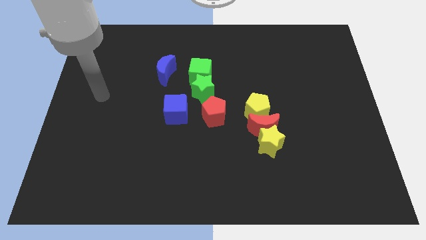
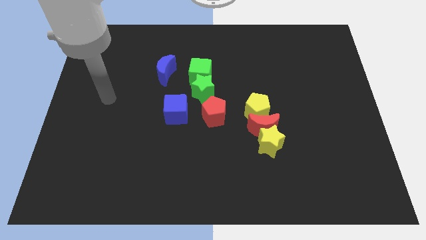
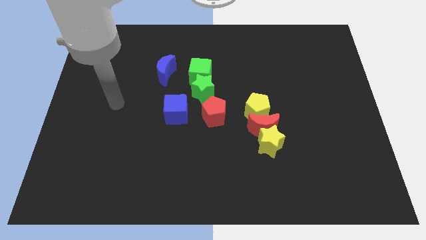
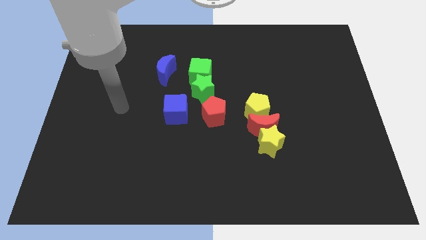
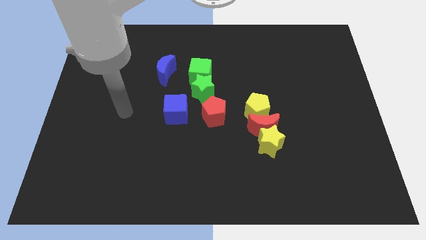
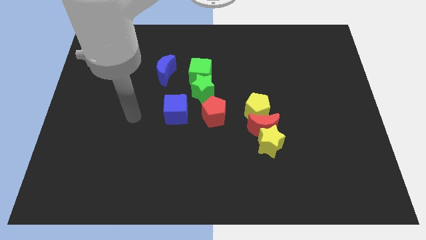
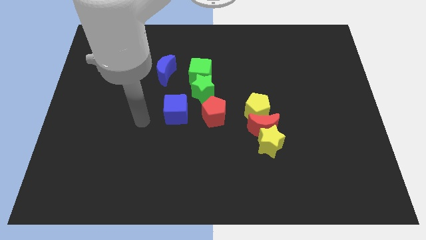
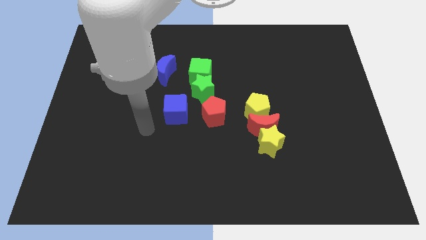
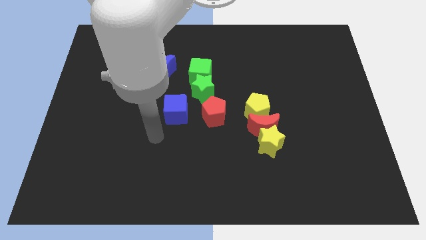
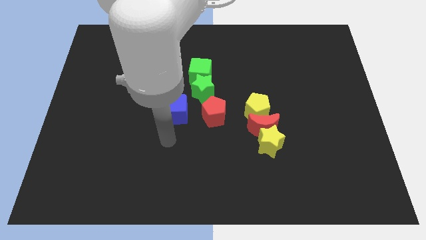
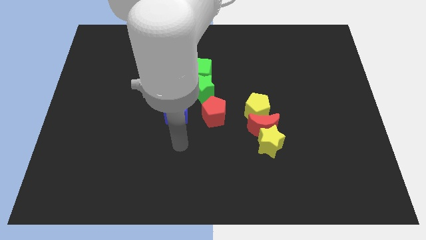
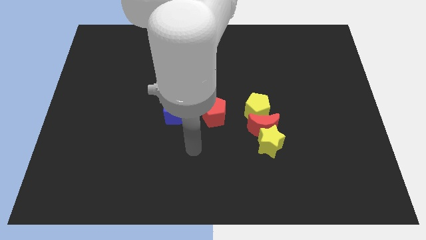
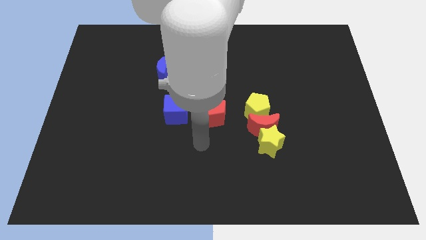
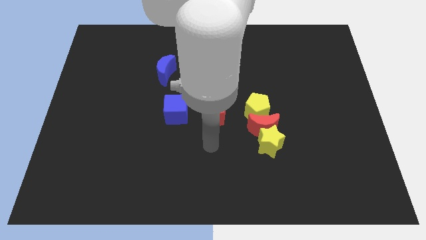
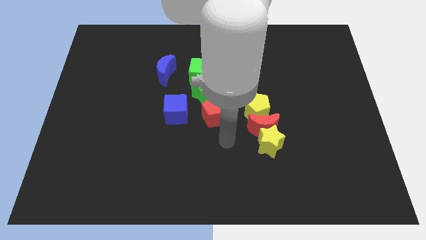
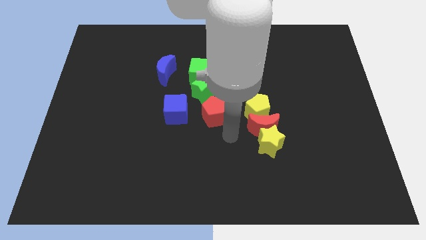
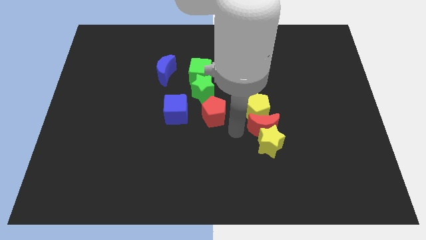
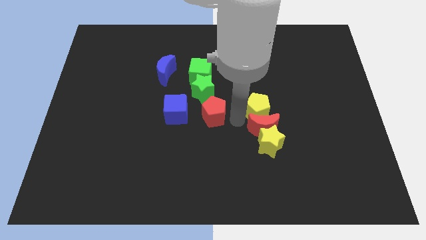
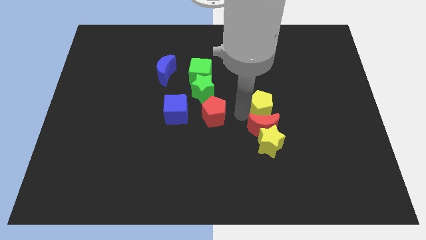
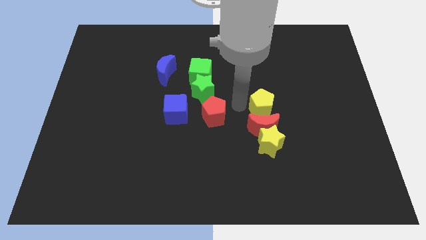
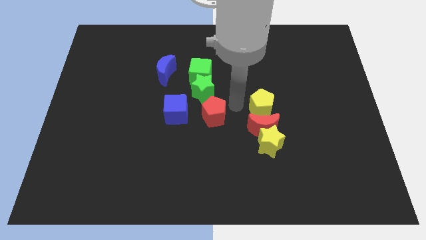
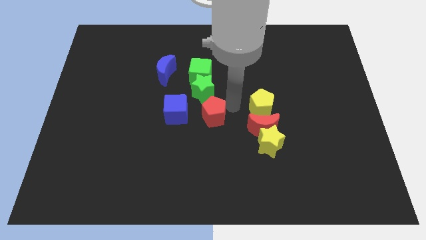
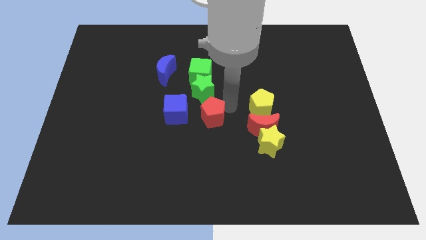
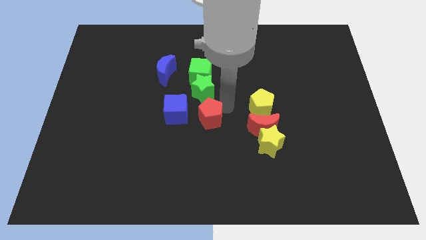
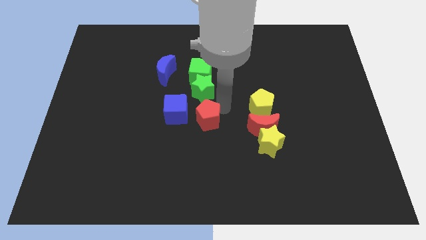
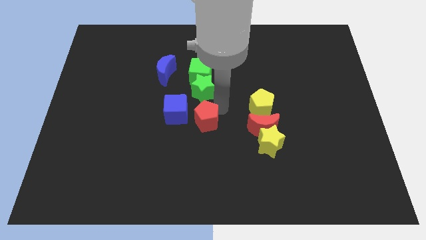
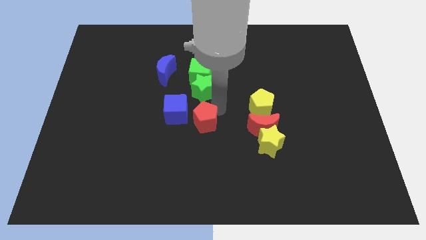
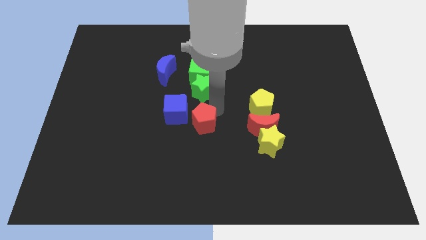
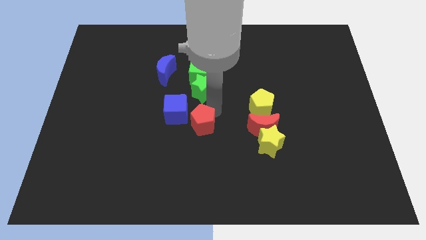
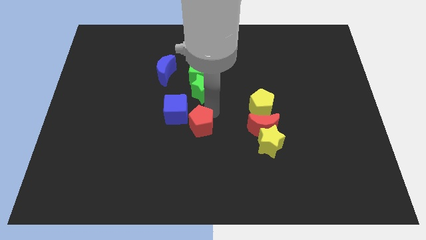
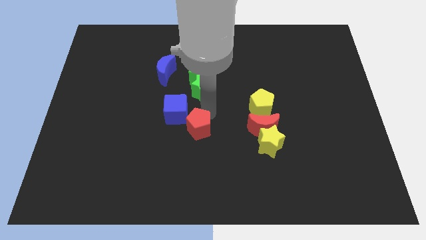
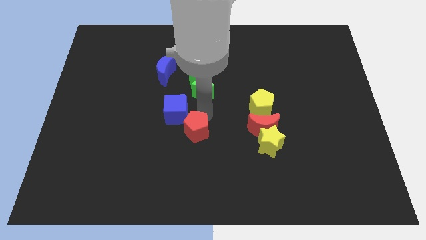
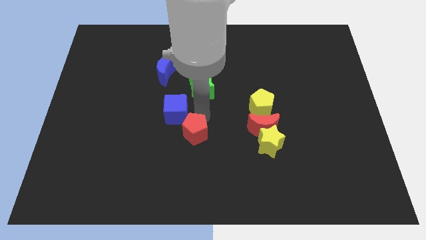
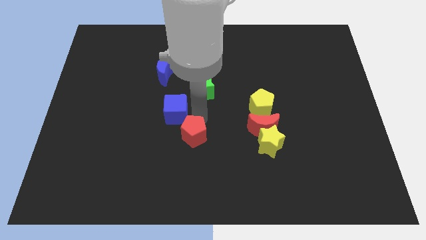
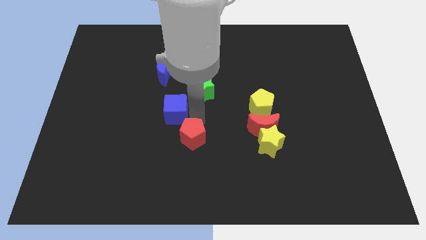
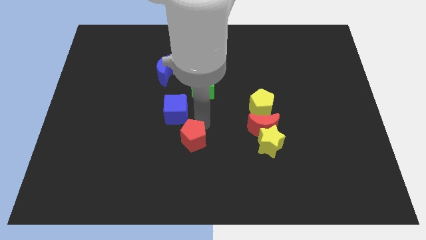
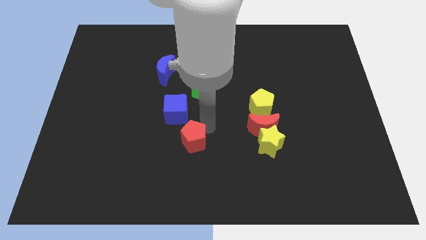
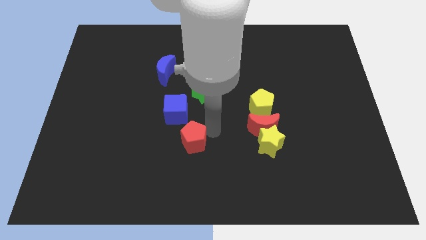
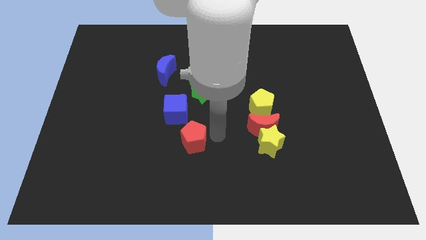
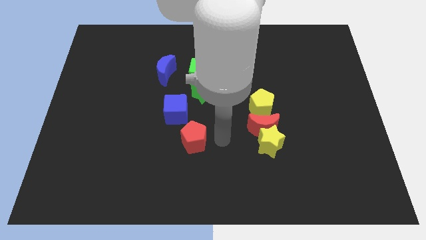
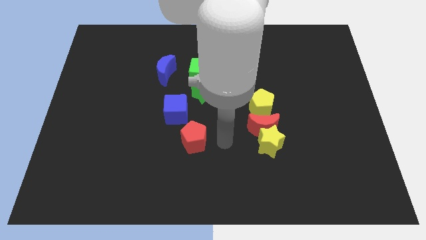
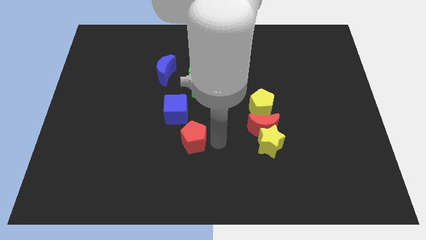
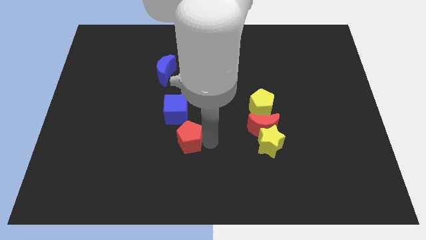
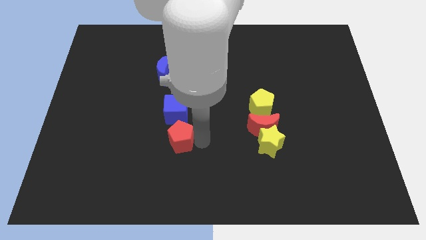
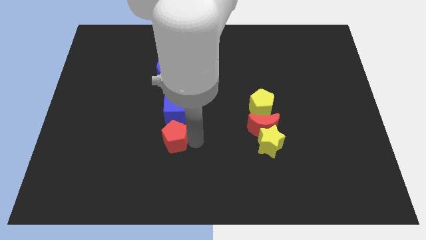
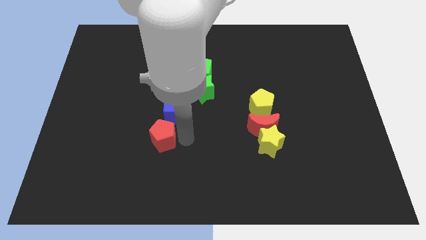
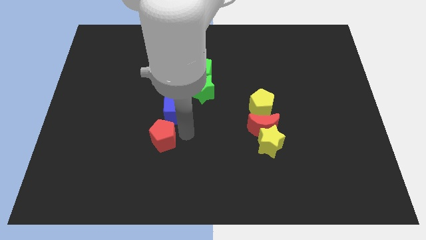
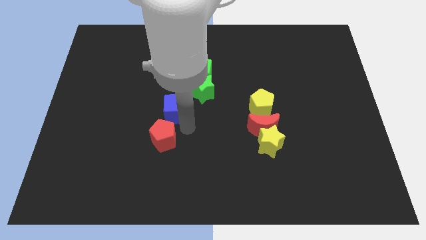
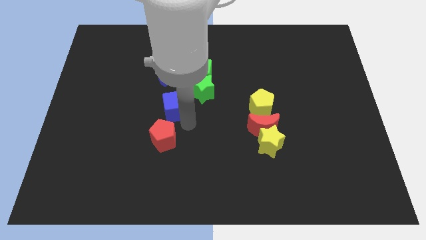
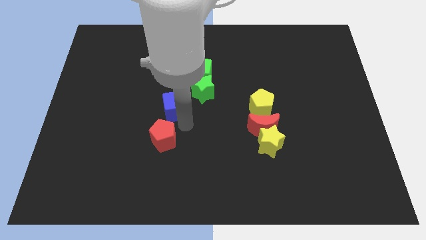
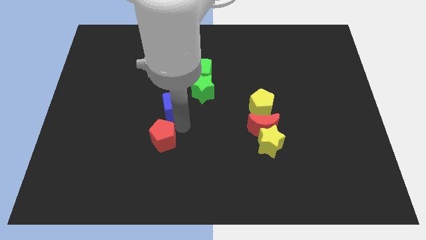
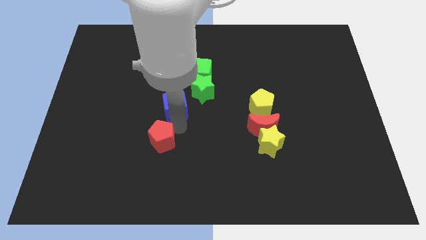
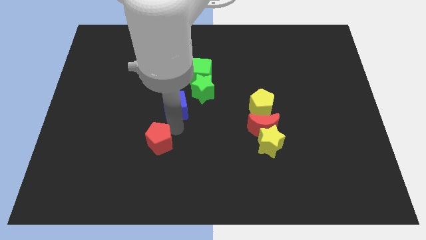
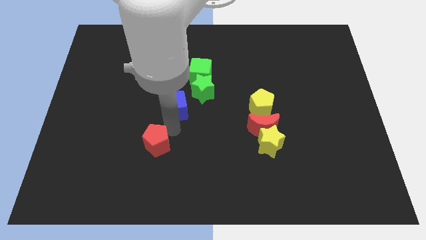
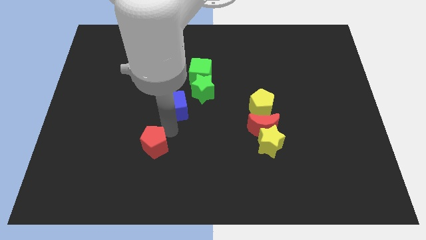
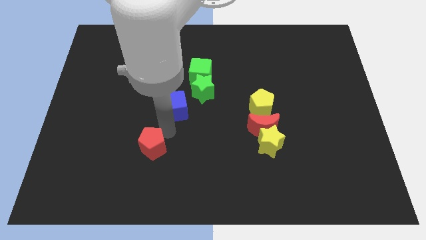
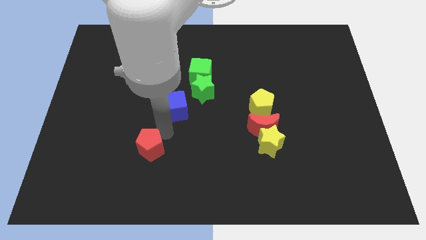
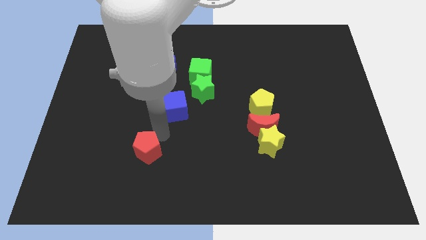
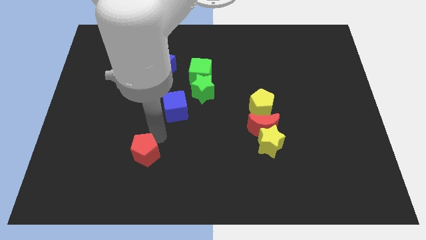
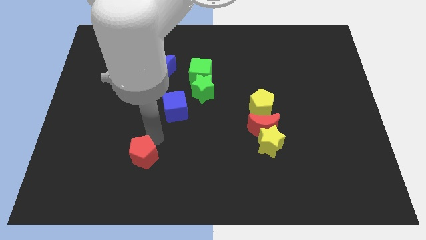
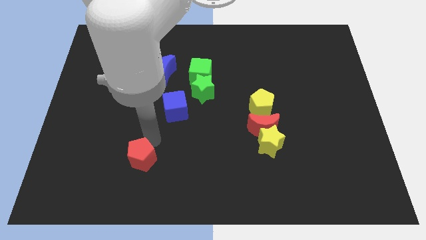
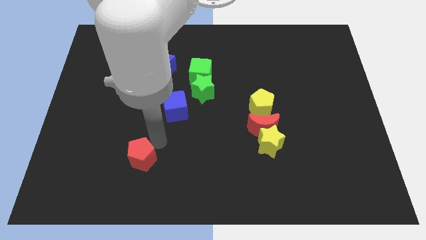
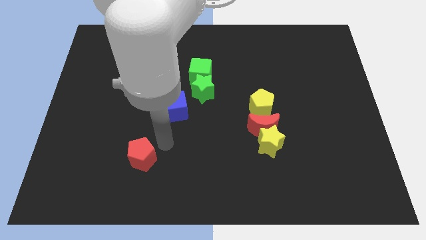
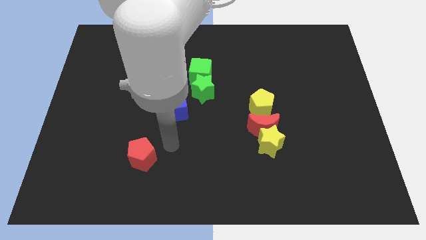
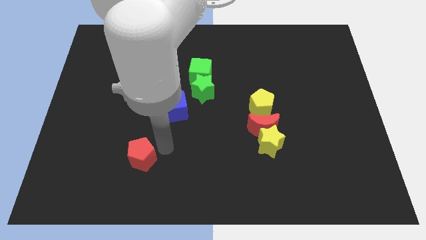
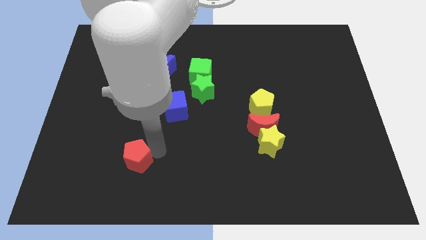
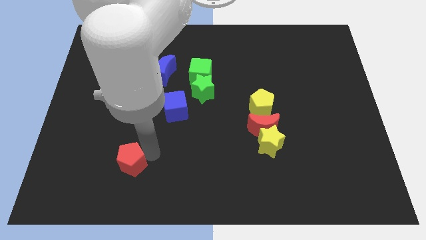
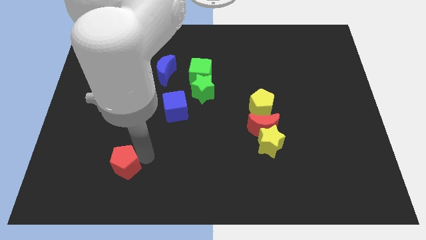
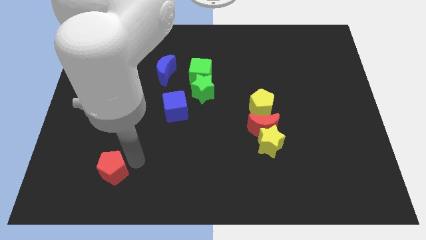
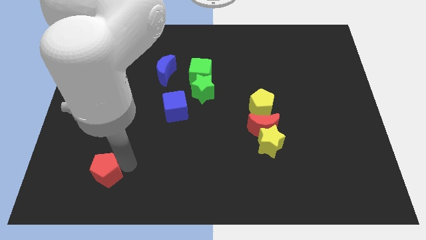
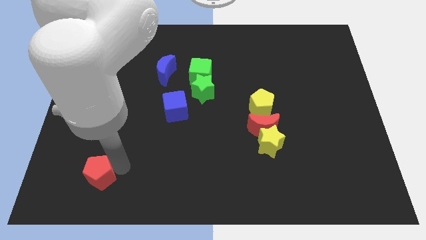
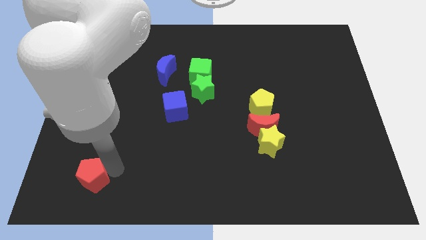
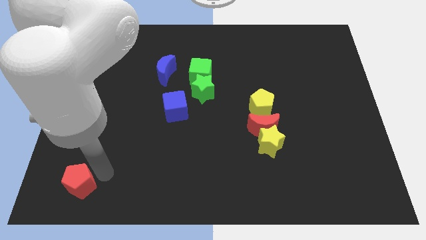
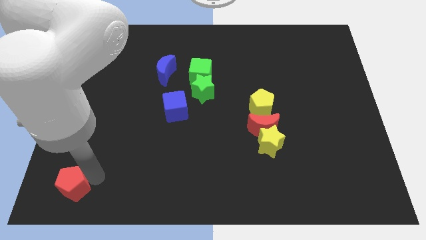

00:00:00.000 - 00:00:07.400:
slide the red pentagon to the lower left corner
